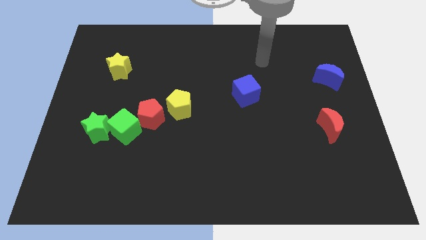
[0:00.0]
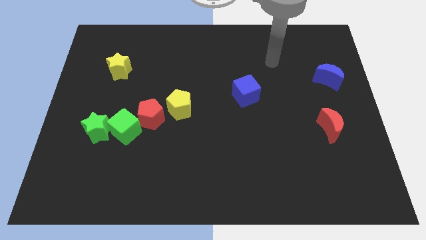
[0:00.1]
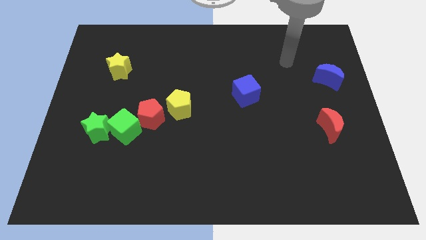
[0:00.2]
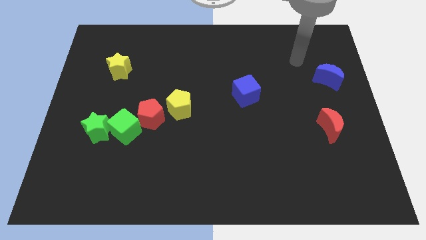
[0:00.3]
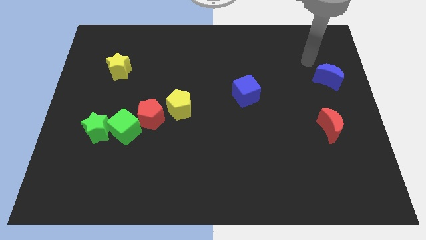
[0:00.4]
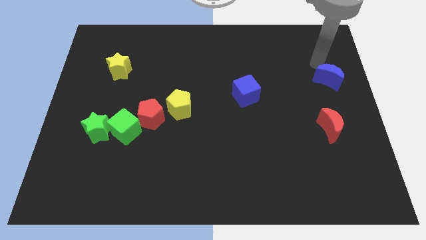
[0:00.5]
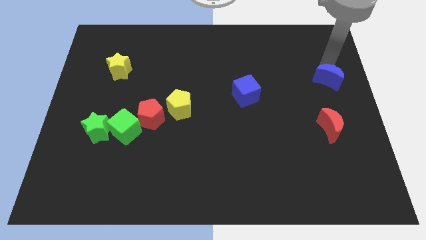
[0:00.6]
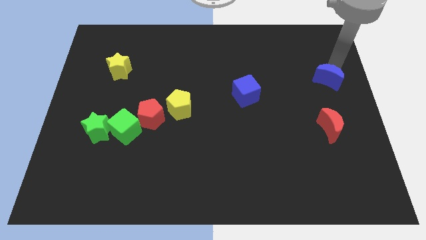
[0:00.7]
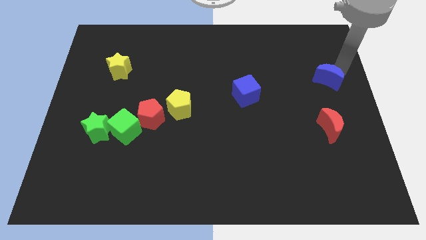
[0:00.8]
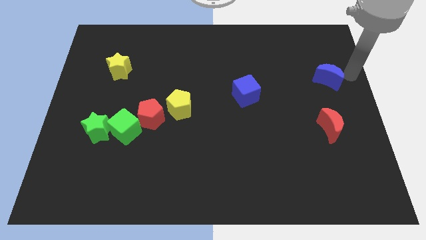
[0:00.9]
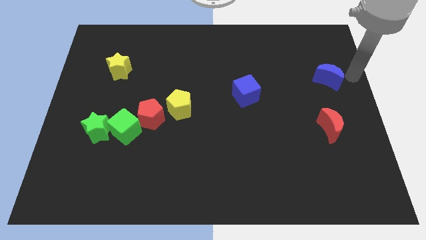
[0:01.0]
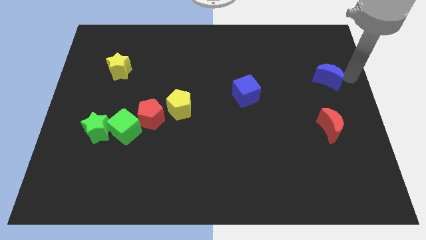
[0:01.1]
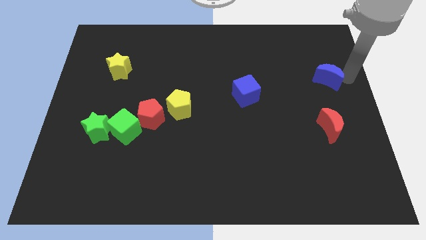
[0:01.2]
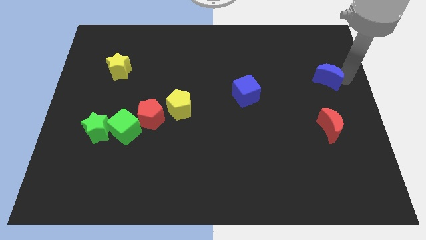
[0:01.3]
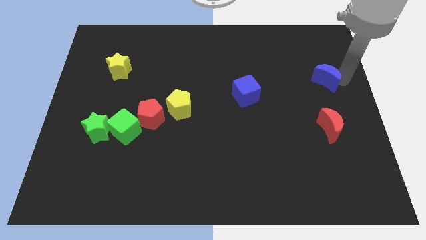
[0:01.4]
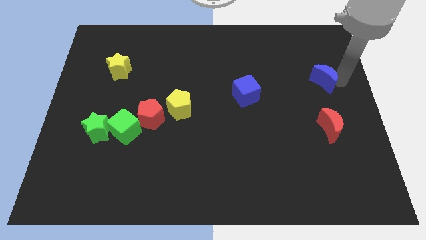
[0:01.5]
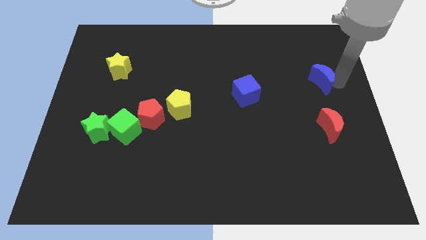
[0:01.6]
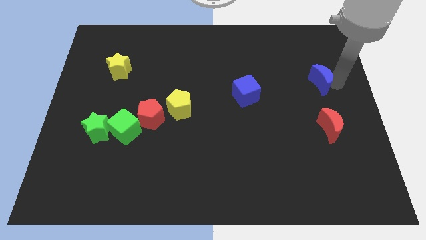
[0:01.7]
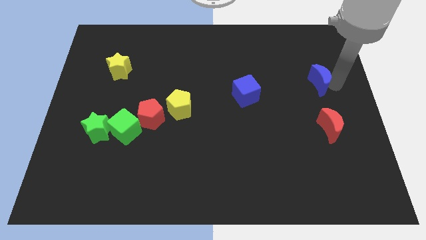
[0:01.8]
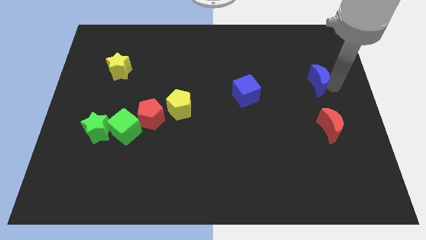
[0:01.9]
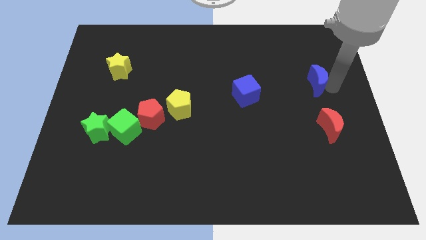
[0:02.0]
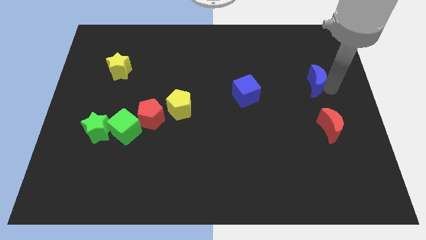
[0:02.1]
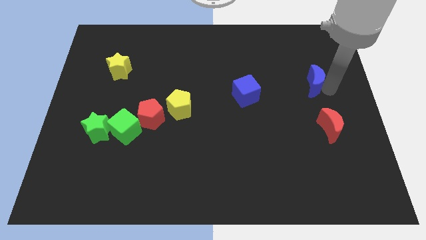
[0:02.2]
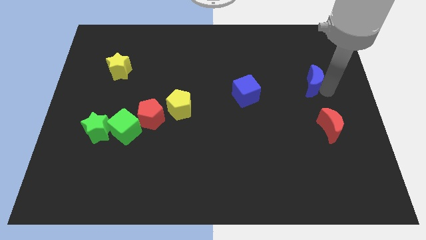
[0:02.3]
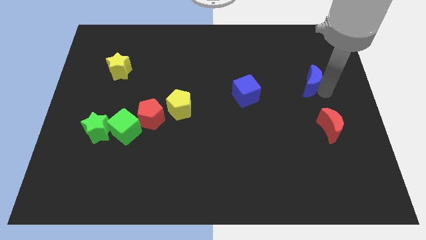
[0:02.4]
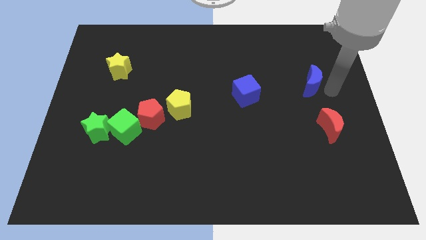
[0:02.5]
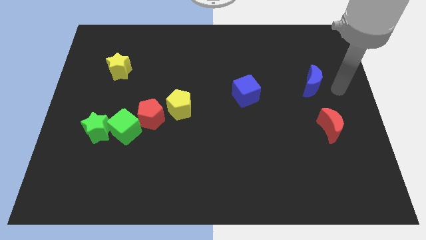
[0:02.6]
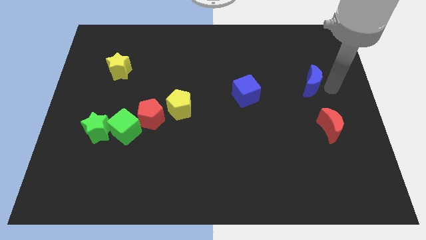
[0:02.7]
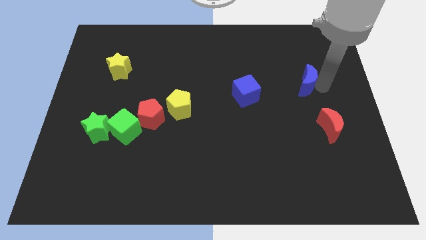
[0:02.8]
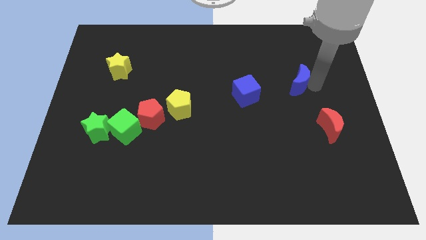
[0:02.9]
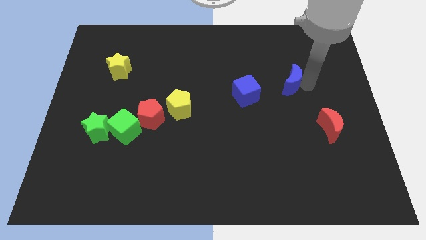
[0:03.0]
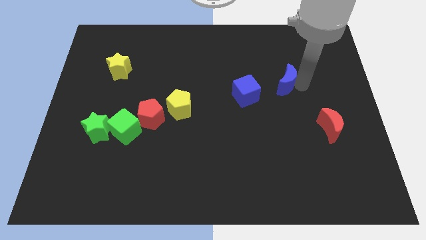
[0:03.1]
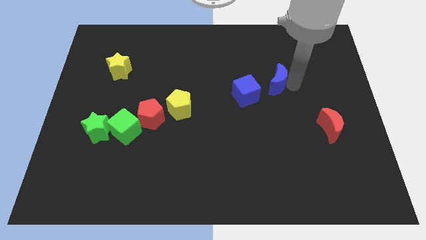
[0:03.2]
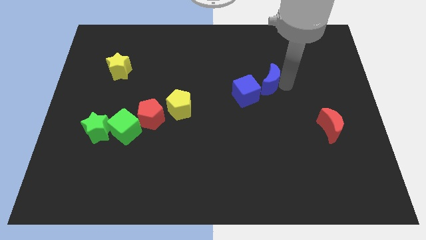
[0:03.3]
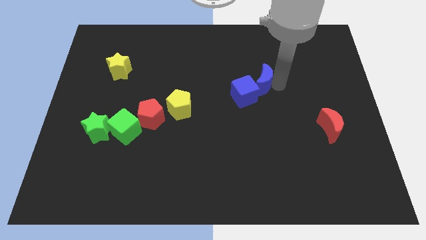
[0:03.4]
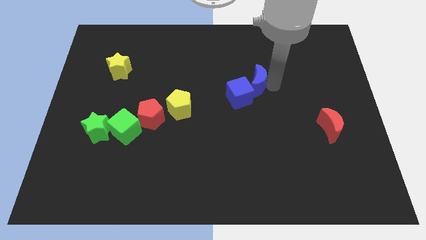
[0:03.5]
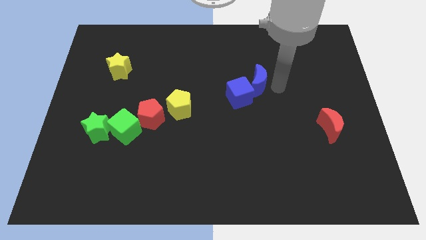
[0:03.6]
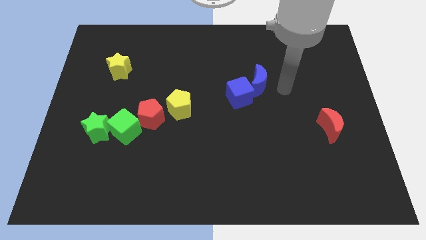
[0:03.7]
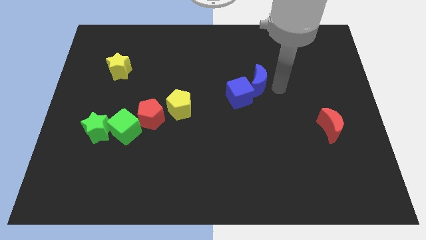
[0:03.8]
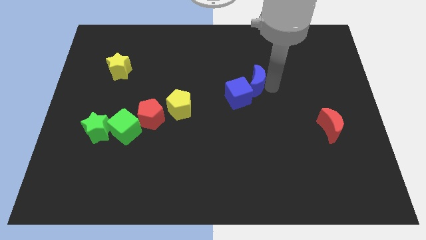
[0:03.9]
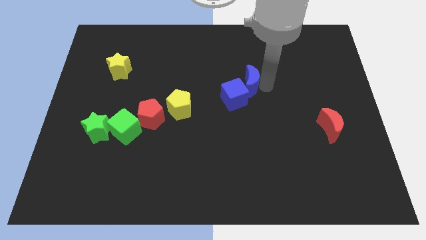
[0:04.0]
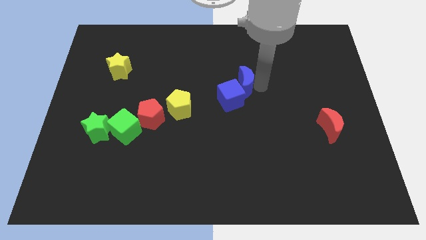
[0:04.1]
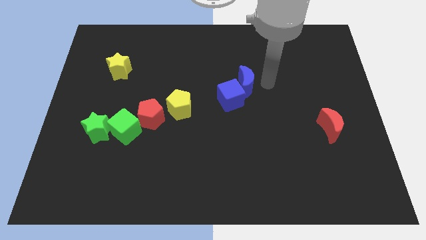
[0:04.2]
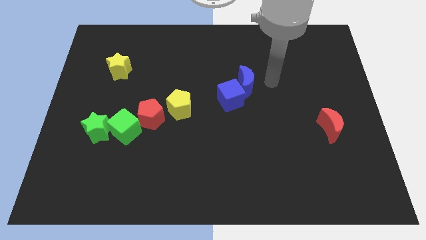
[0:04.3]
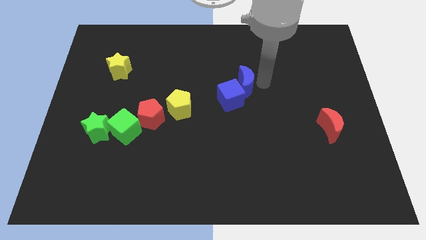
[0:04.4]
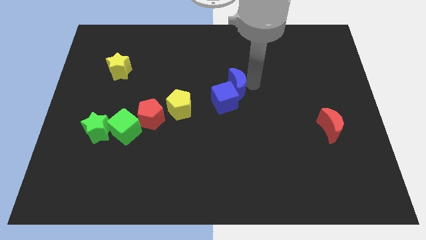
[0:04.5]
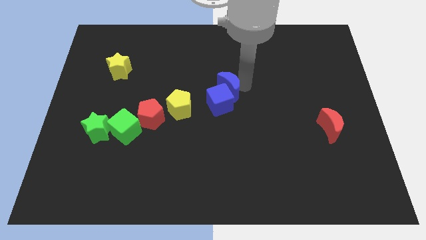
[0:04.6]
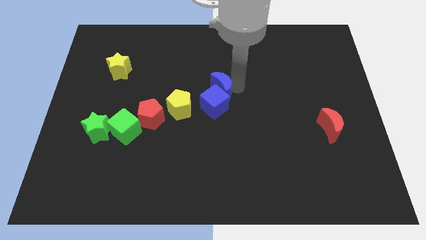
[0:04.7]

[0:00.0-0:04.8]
slide the blue moon to the top right side of the yellow pentagon

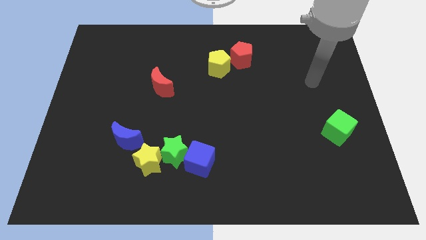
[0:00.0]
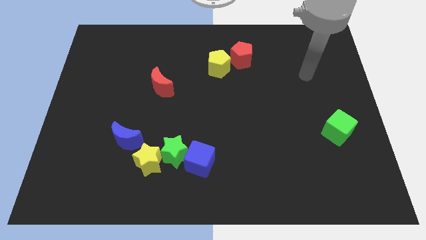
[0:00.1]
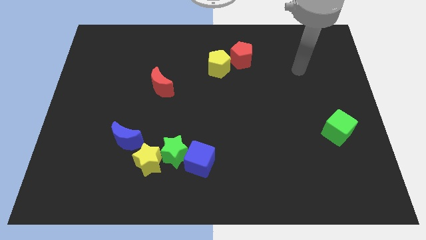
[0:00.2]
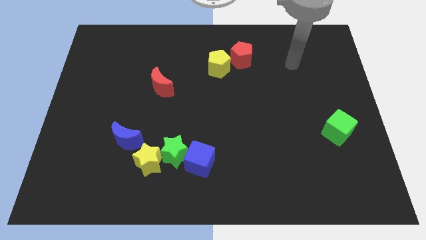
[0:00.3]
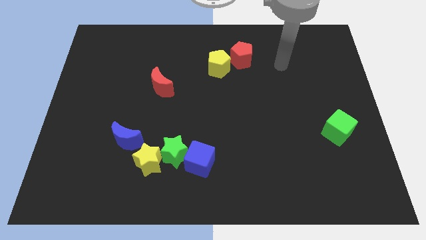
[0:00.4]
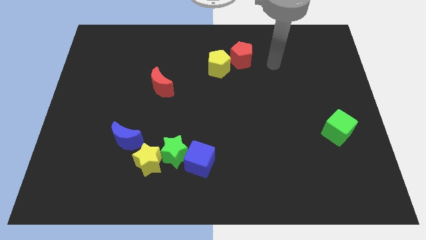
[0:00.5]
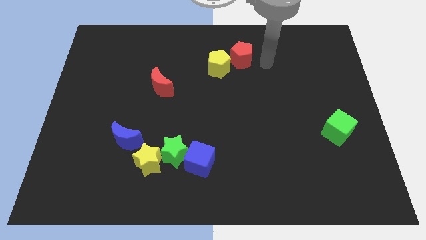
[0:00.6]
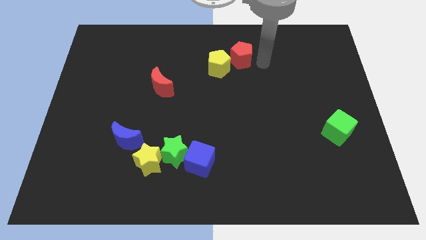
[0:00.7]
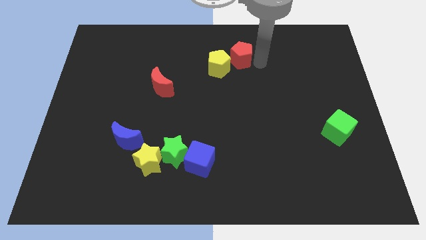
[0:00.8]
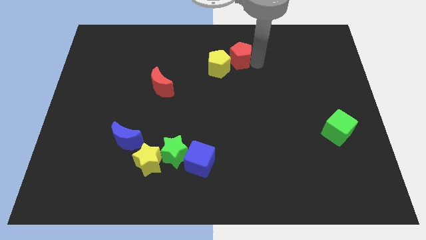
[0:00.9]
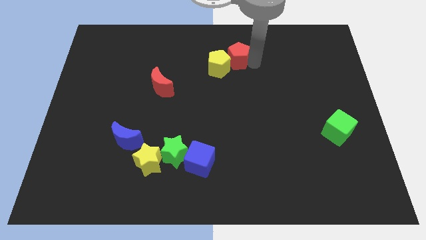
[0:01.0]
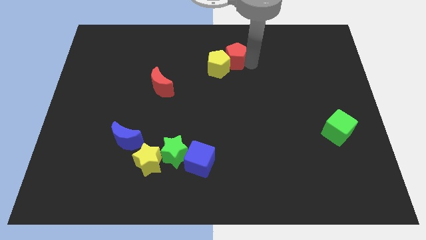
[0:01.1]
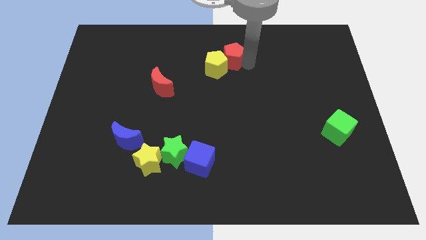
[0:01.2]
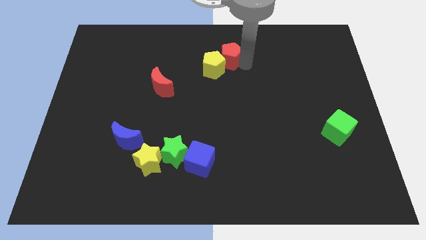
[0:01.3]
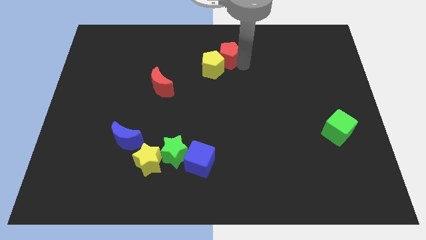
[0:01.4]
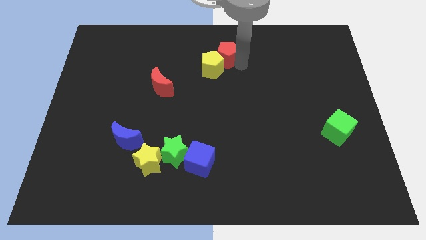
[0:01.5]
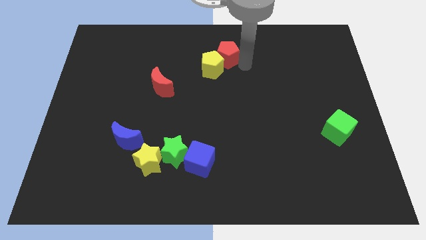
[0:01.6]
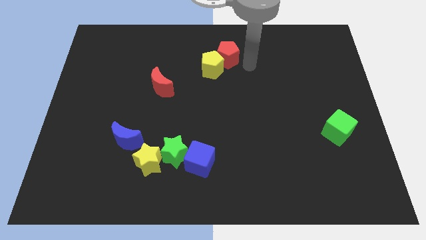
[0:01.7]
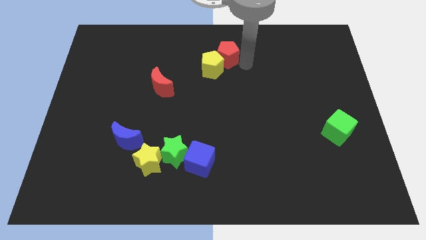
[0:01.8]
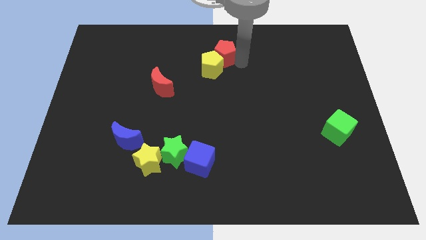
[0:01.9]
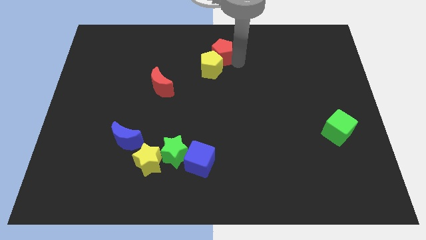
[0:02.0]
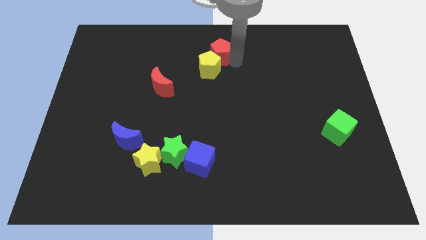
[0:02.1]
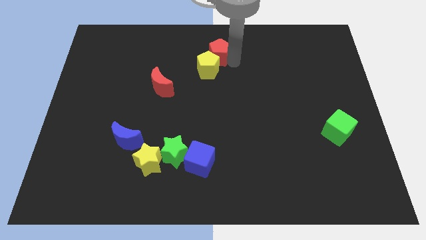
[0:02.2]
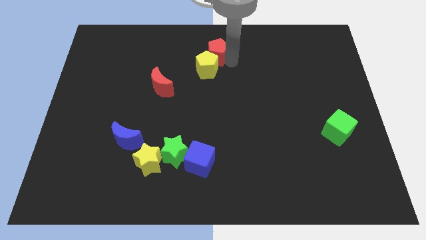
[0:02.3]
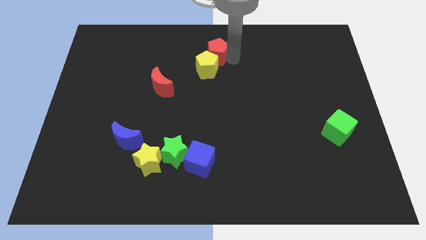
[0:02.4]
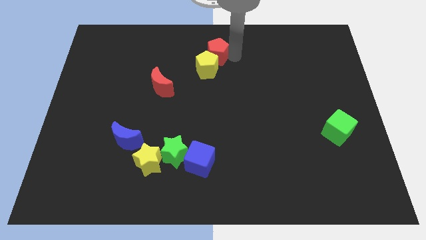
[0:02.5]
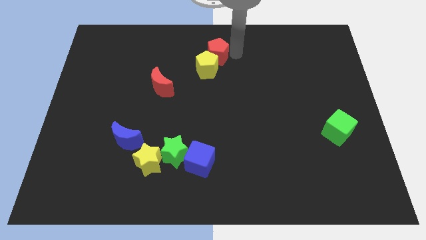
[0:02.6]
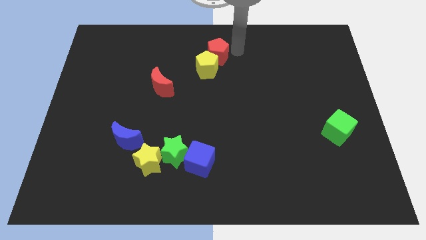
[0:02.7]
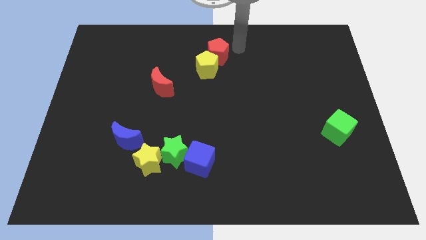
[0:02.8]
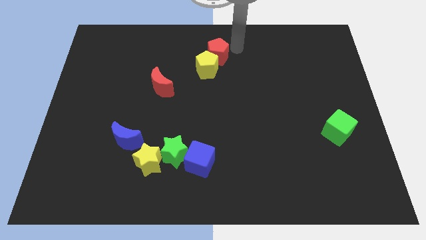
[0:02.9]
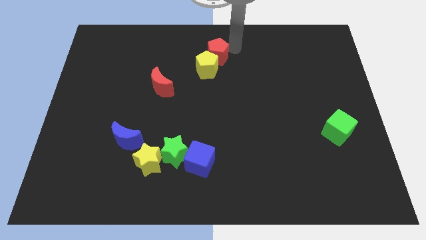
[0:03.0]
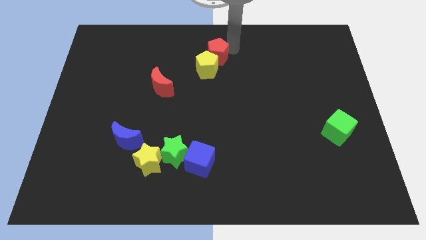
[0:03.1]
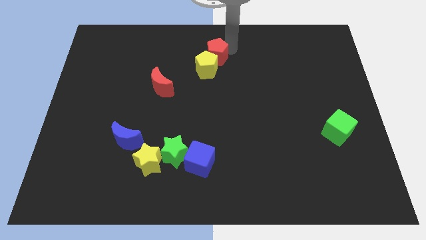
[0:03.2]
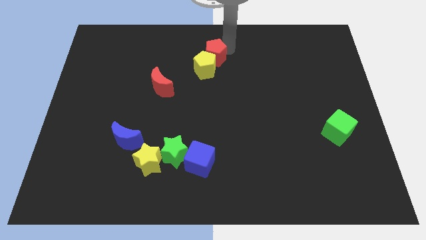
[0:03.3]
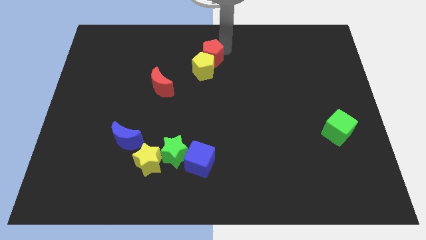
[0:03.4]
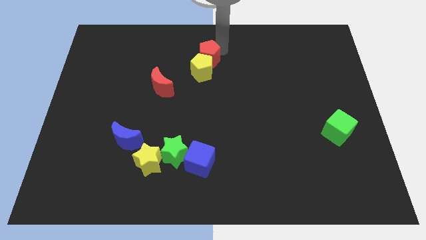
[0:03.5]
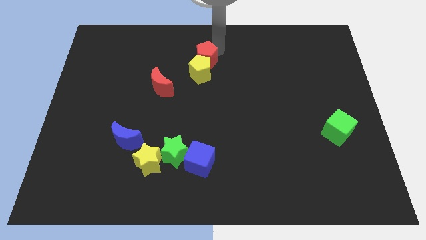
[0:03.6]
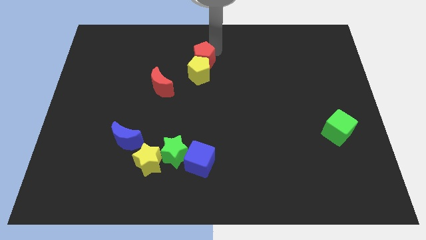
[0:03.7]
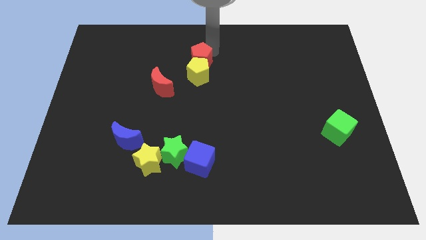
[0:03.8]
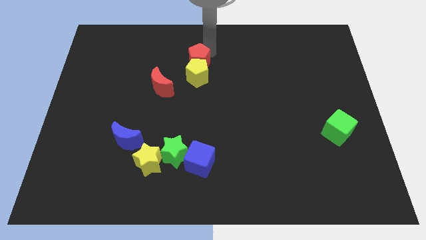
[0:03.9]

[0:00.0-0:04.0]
slide the red pentagon diagonally up and to the right of the red moon
